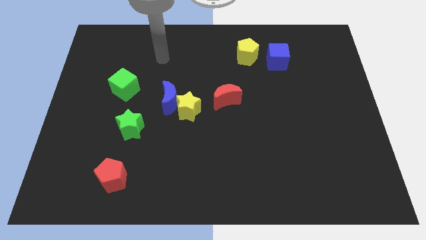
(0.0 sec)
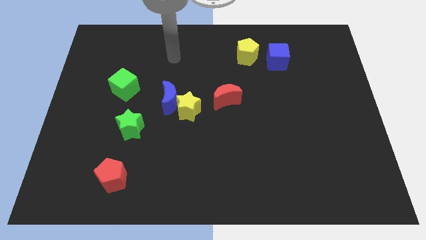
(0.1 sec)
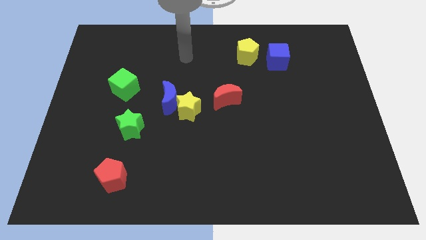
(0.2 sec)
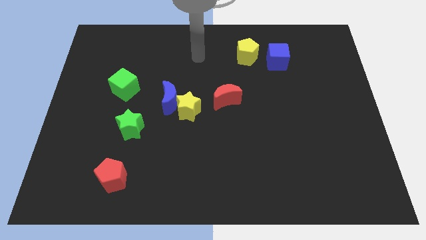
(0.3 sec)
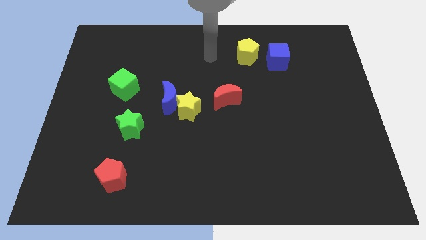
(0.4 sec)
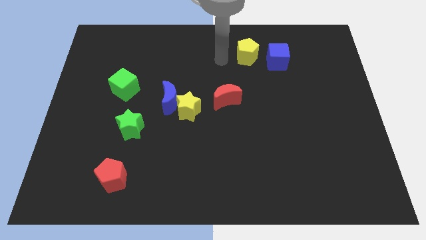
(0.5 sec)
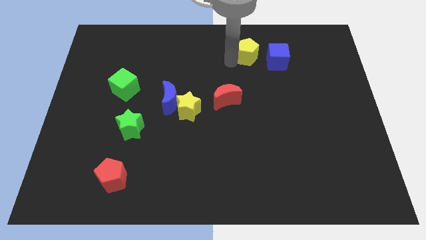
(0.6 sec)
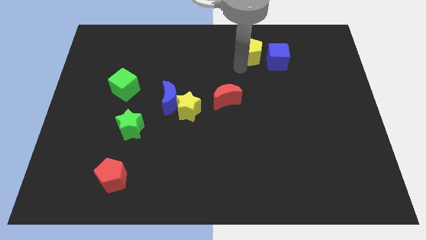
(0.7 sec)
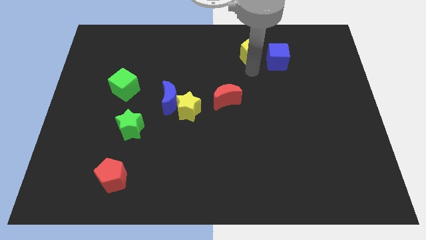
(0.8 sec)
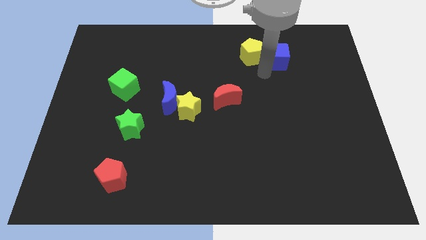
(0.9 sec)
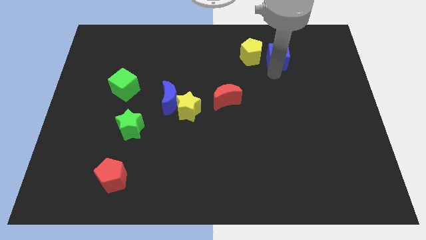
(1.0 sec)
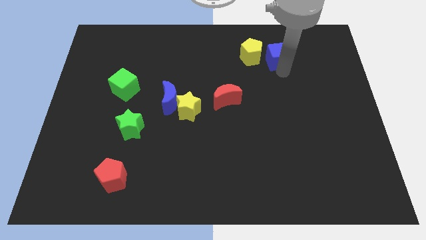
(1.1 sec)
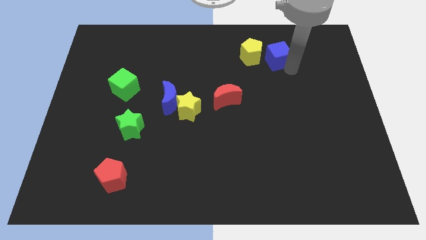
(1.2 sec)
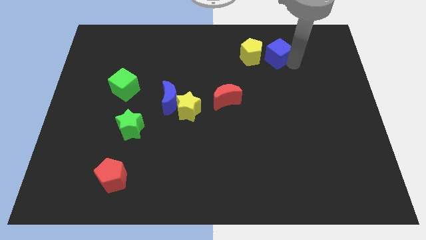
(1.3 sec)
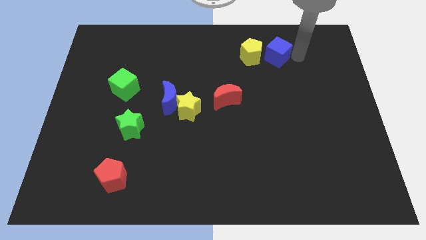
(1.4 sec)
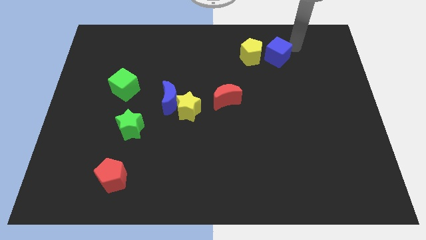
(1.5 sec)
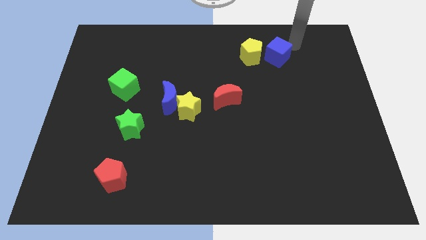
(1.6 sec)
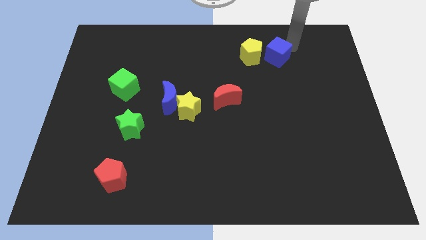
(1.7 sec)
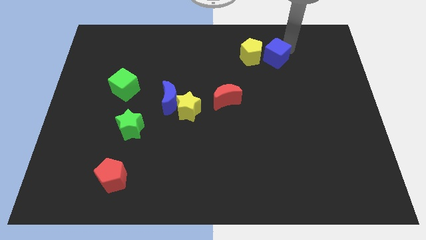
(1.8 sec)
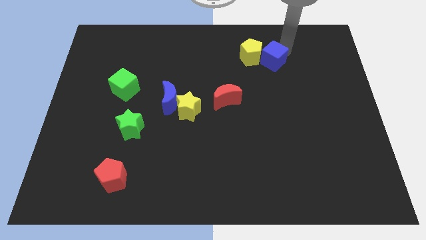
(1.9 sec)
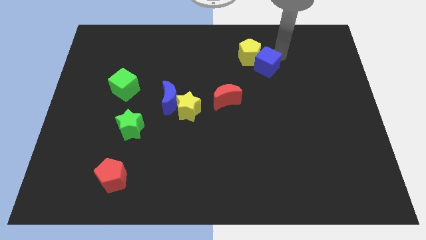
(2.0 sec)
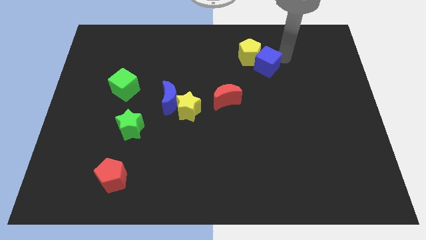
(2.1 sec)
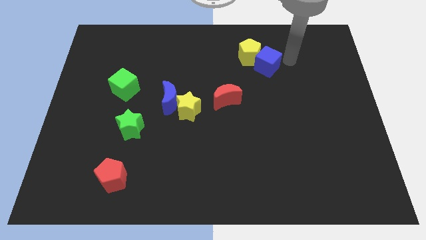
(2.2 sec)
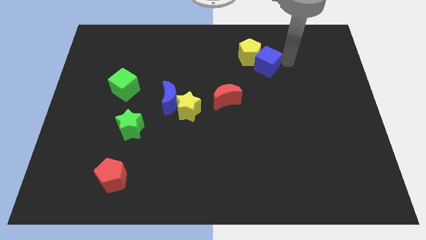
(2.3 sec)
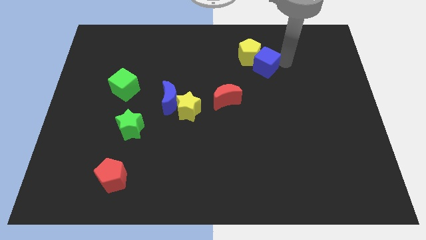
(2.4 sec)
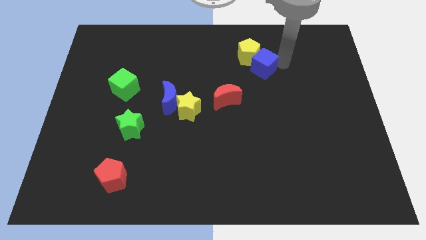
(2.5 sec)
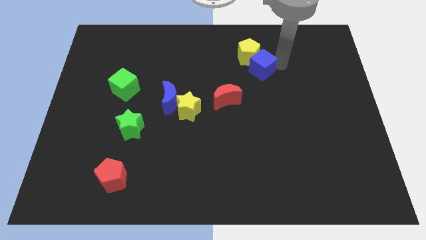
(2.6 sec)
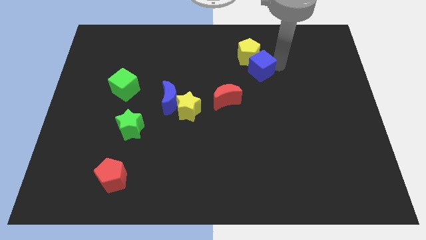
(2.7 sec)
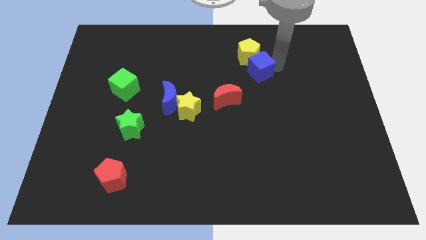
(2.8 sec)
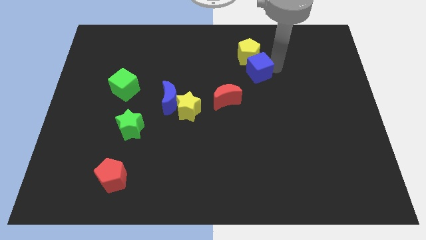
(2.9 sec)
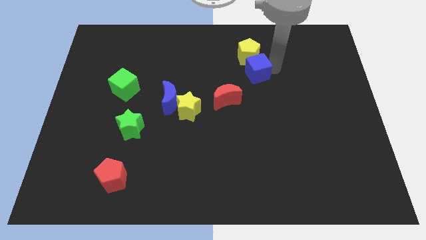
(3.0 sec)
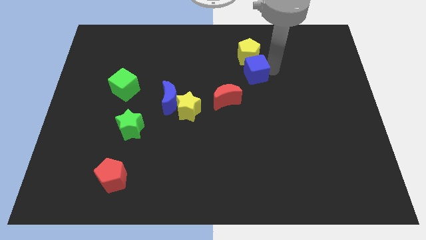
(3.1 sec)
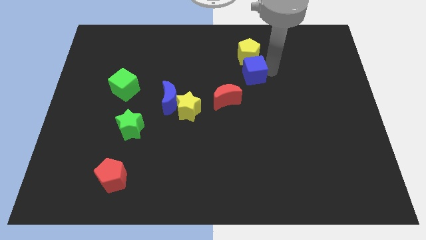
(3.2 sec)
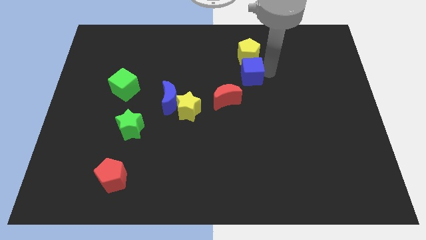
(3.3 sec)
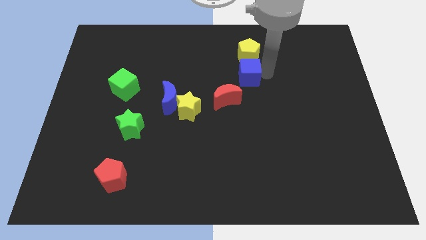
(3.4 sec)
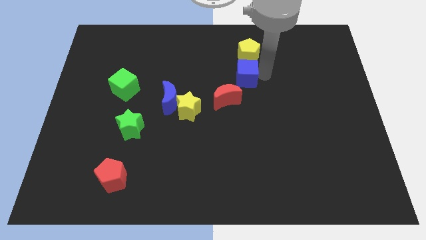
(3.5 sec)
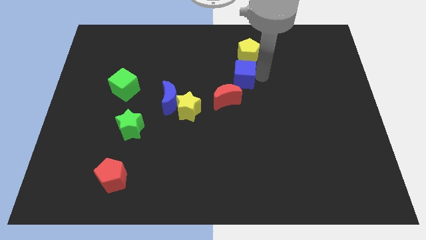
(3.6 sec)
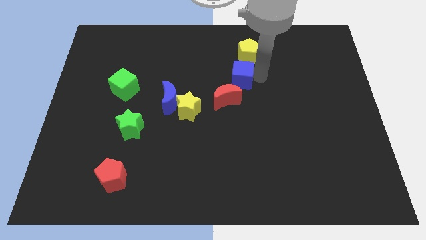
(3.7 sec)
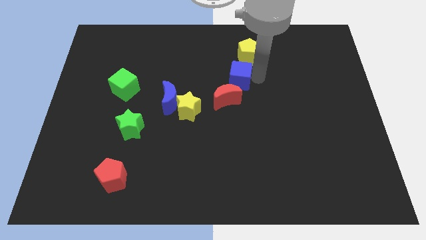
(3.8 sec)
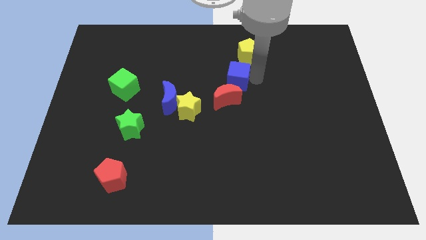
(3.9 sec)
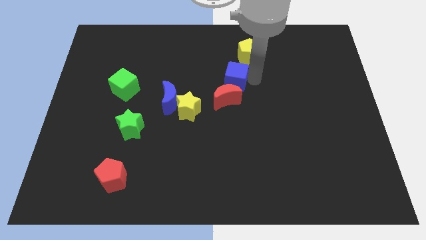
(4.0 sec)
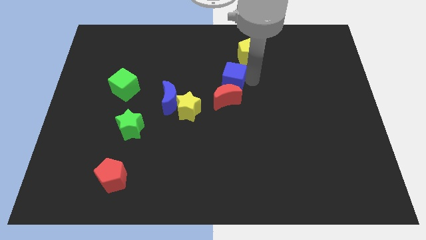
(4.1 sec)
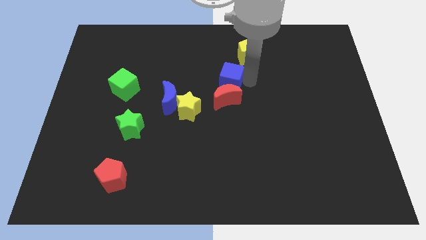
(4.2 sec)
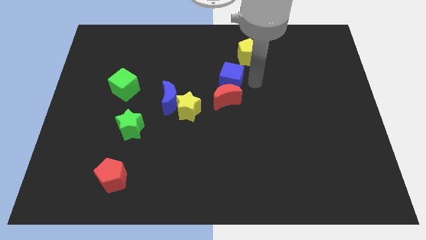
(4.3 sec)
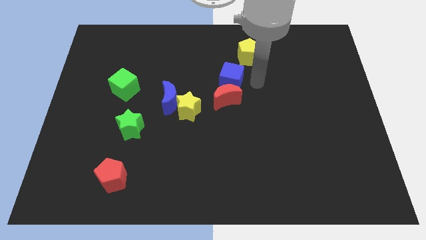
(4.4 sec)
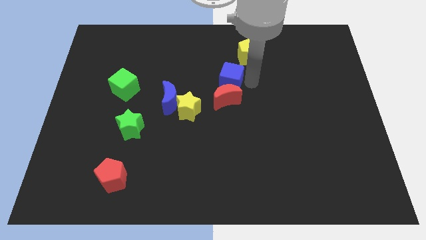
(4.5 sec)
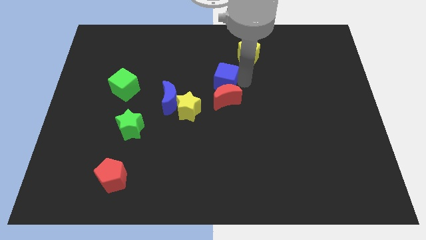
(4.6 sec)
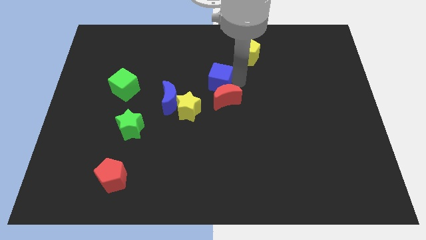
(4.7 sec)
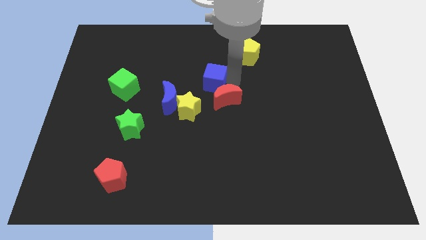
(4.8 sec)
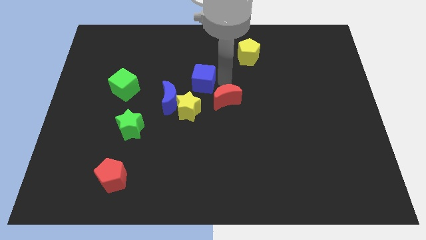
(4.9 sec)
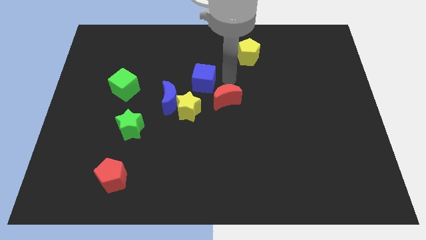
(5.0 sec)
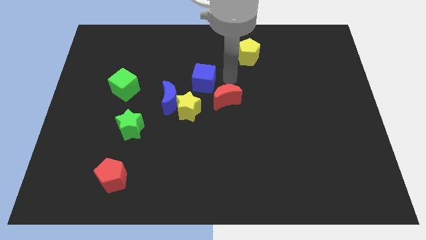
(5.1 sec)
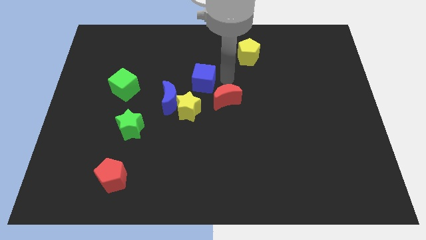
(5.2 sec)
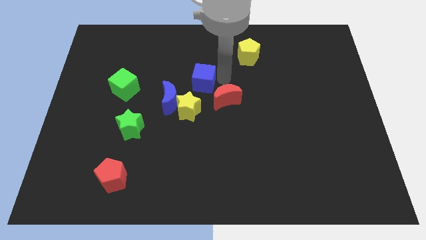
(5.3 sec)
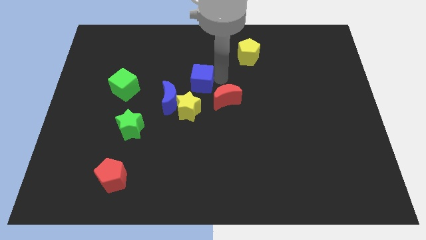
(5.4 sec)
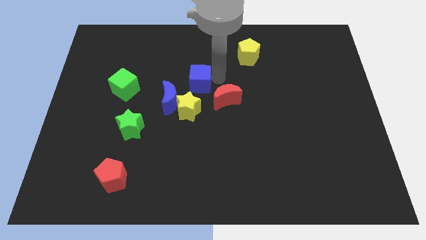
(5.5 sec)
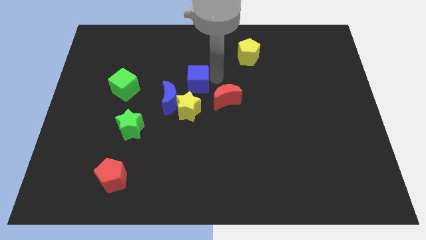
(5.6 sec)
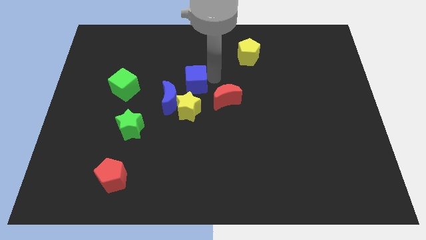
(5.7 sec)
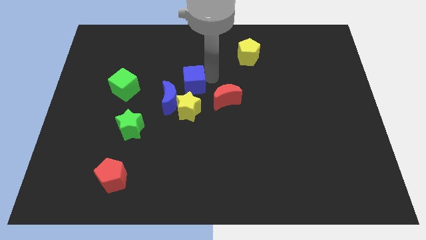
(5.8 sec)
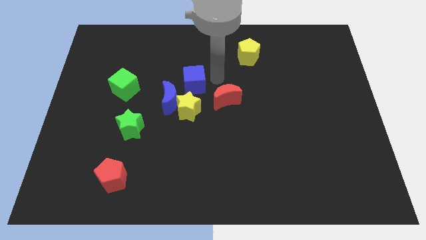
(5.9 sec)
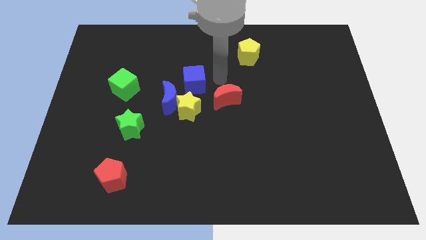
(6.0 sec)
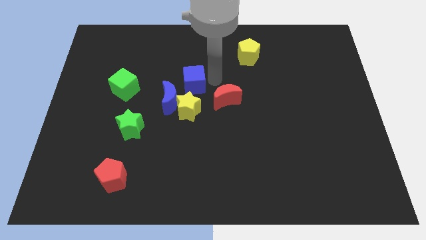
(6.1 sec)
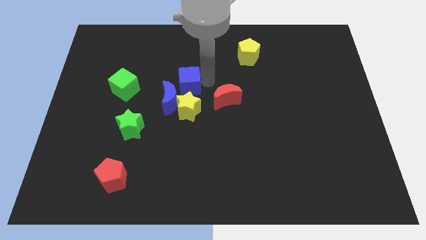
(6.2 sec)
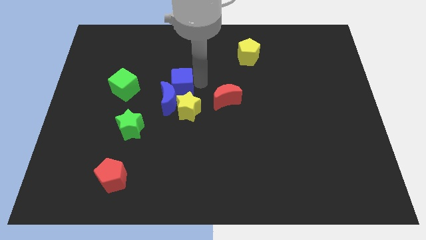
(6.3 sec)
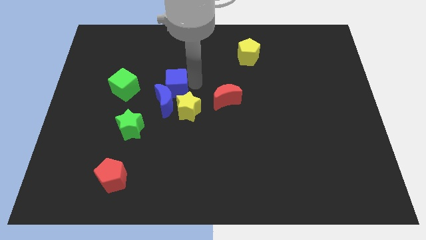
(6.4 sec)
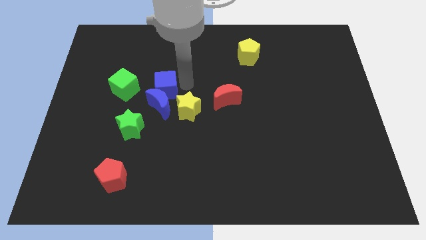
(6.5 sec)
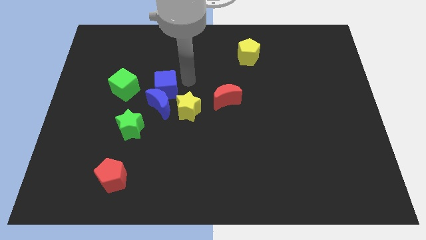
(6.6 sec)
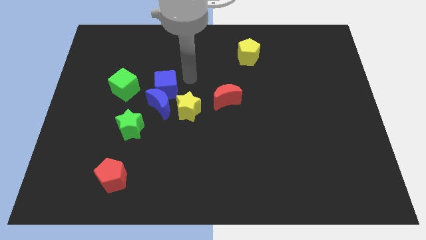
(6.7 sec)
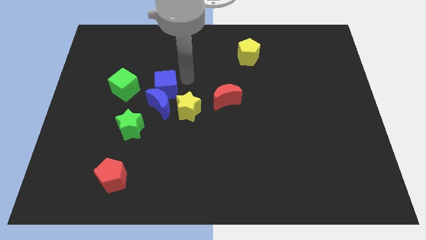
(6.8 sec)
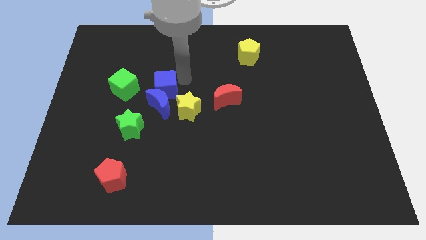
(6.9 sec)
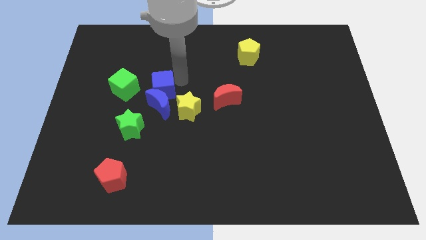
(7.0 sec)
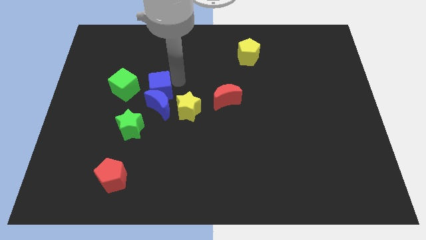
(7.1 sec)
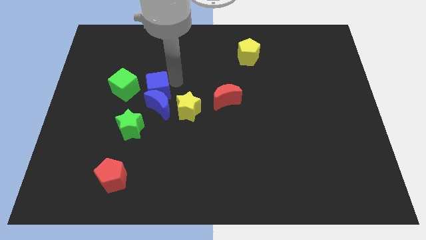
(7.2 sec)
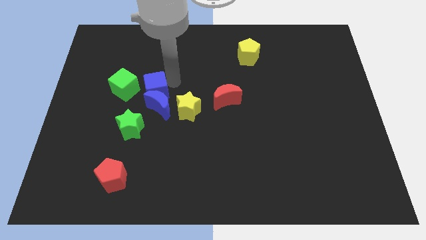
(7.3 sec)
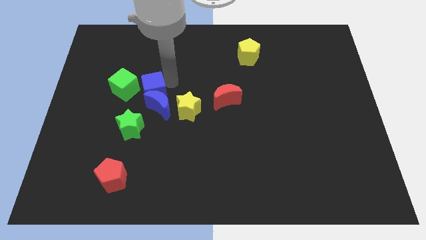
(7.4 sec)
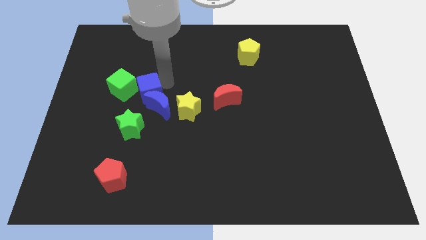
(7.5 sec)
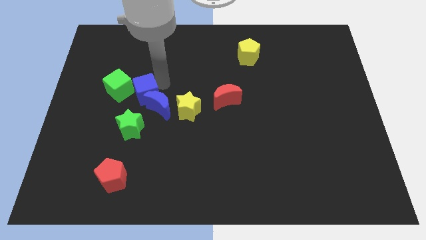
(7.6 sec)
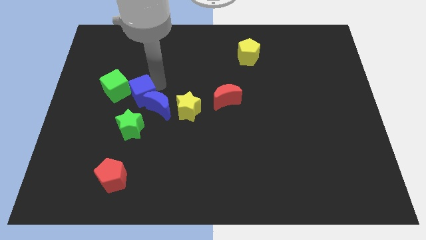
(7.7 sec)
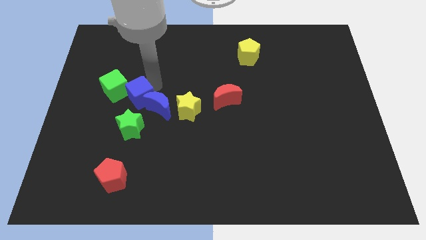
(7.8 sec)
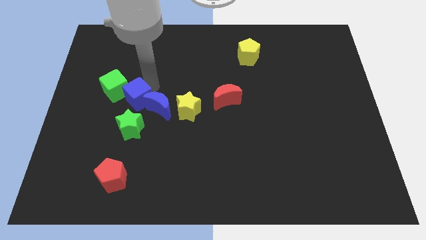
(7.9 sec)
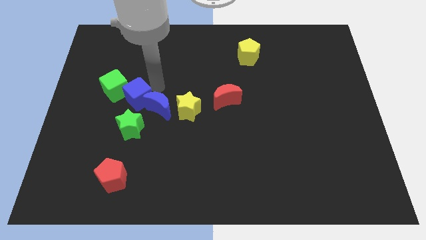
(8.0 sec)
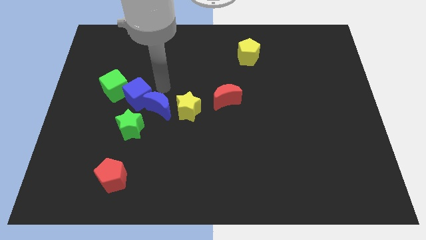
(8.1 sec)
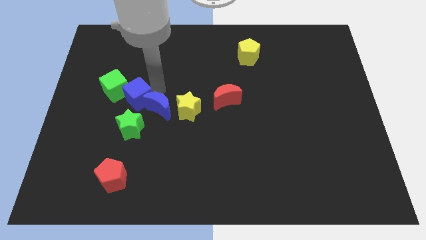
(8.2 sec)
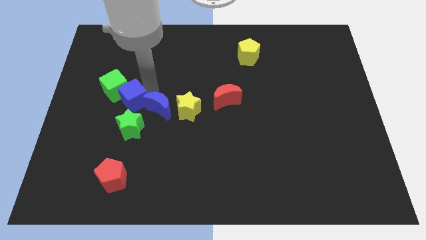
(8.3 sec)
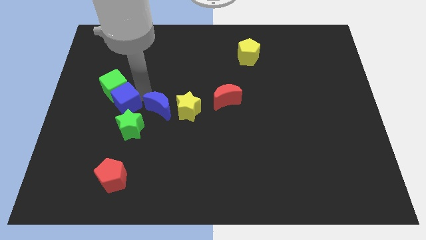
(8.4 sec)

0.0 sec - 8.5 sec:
put the blue cube diagonally up and to the left of the green star
